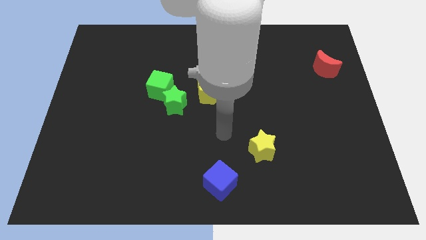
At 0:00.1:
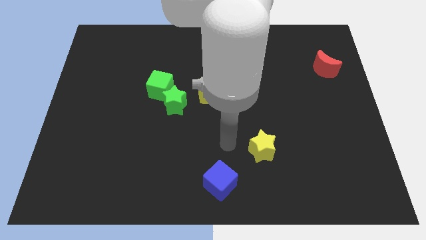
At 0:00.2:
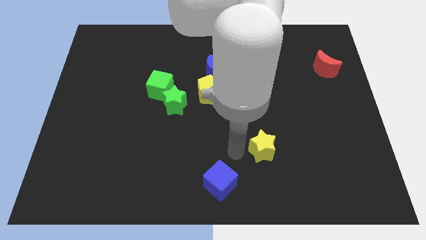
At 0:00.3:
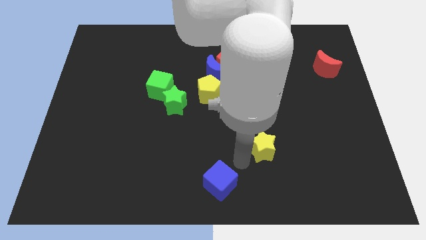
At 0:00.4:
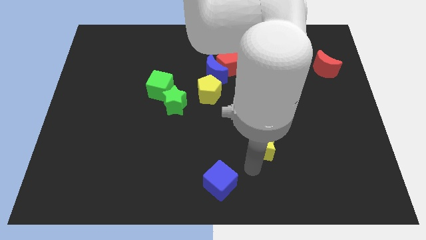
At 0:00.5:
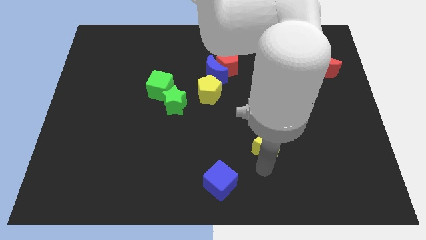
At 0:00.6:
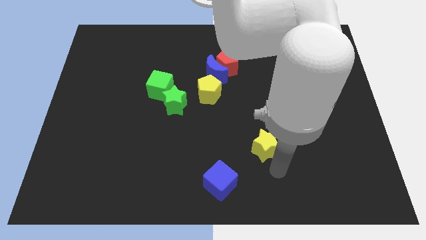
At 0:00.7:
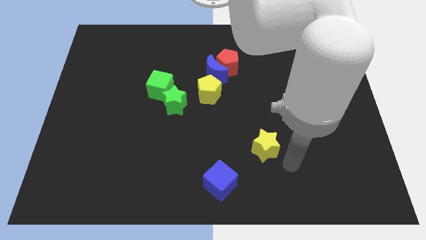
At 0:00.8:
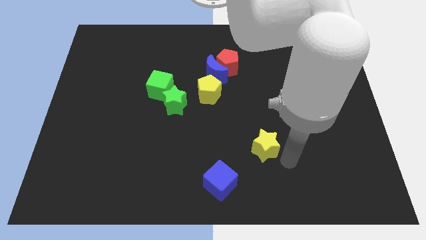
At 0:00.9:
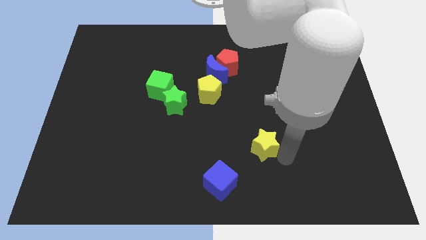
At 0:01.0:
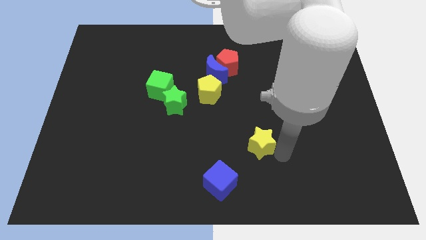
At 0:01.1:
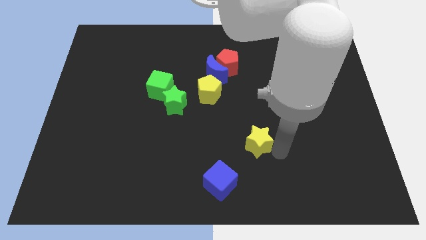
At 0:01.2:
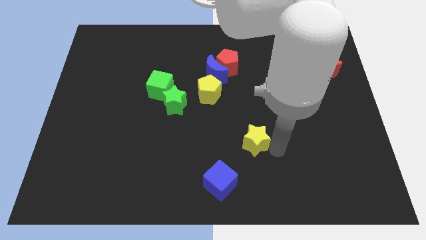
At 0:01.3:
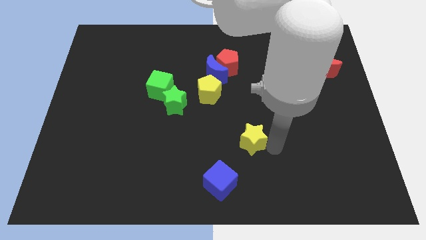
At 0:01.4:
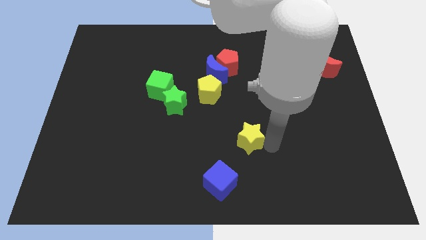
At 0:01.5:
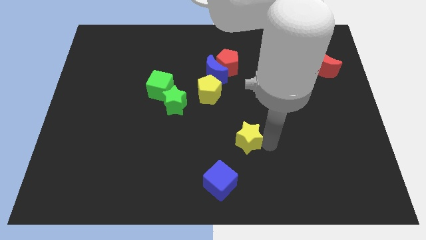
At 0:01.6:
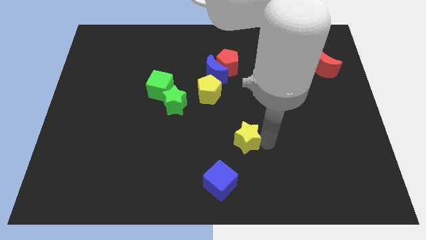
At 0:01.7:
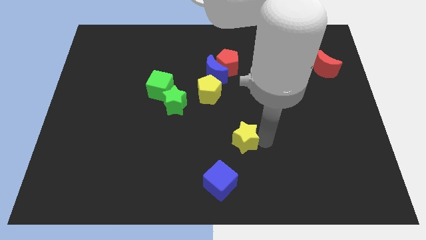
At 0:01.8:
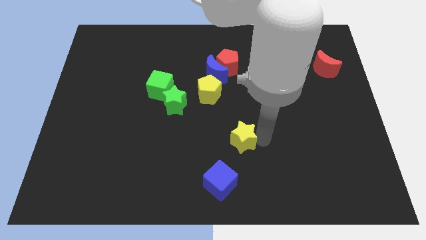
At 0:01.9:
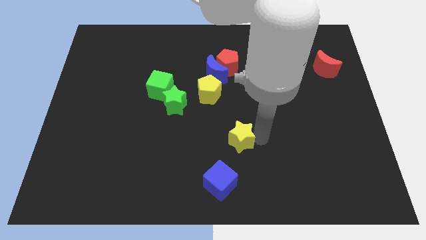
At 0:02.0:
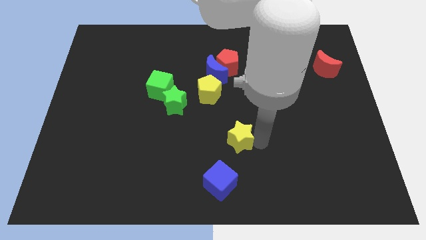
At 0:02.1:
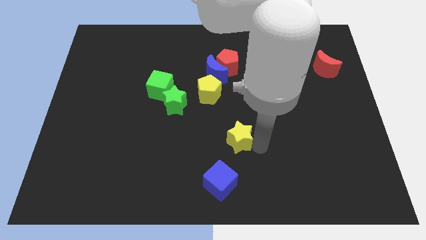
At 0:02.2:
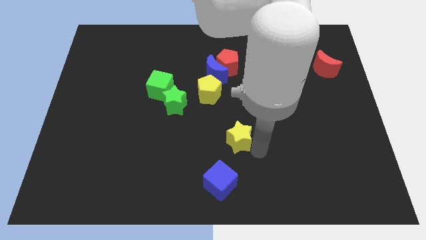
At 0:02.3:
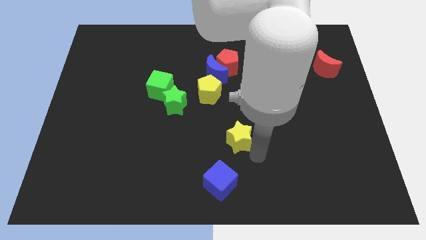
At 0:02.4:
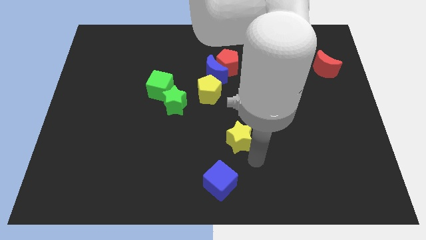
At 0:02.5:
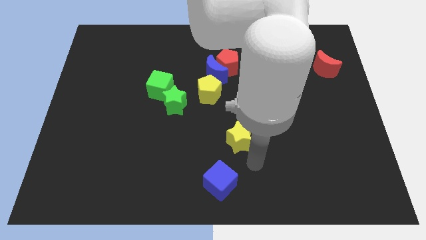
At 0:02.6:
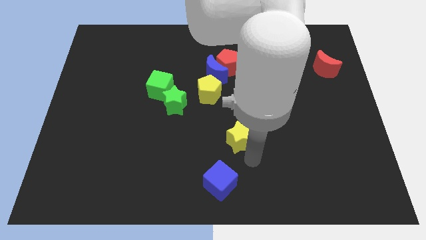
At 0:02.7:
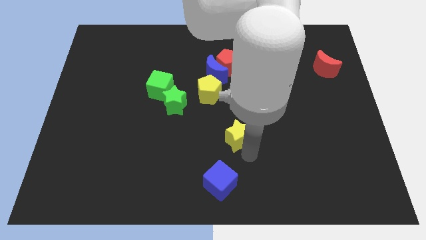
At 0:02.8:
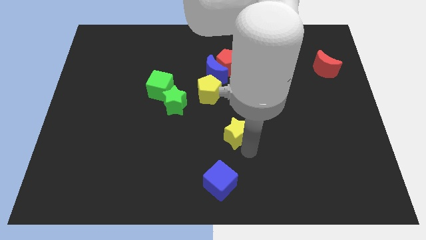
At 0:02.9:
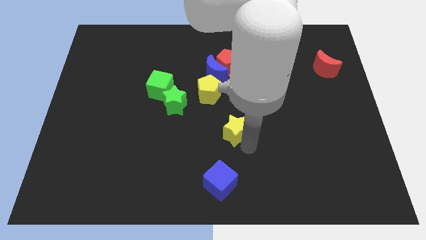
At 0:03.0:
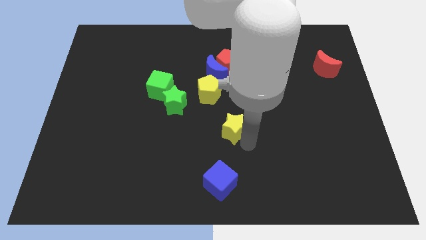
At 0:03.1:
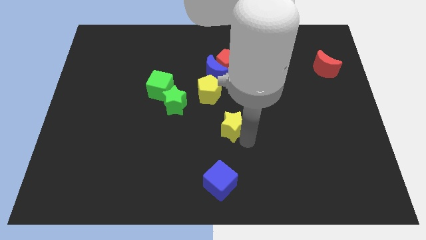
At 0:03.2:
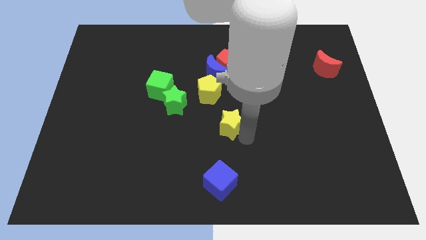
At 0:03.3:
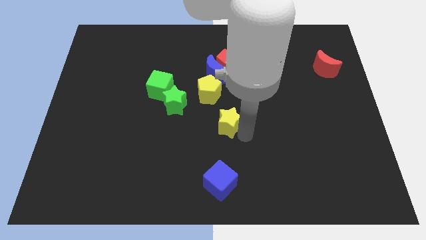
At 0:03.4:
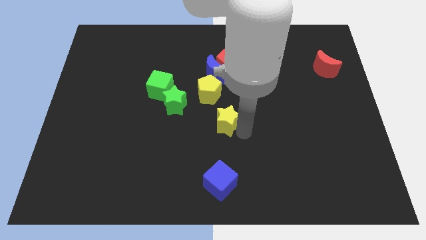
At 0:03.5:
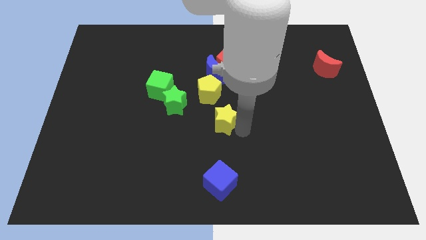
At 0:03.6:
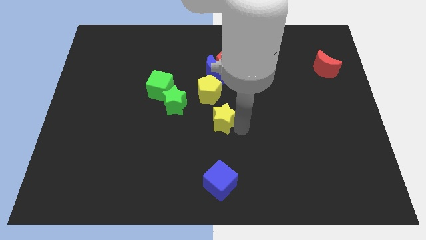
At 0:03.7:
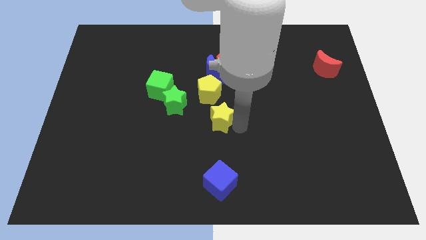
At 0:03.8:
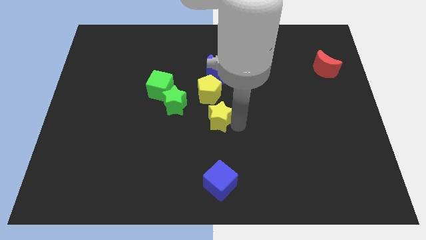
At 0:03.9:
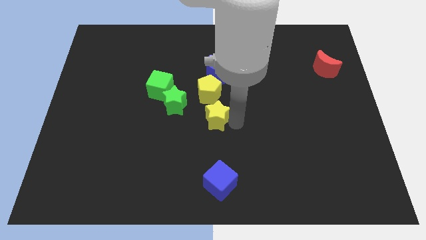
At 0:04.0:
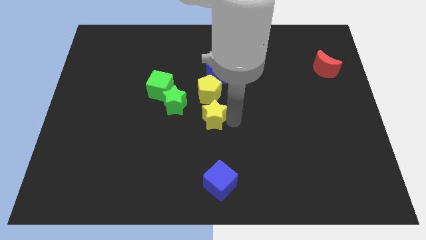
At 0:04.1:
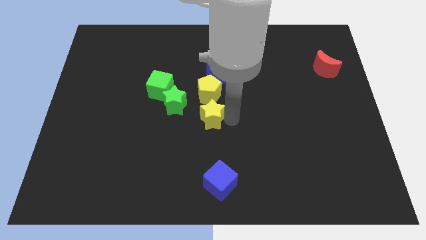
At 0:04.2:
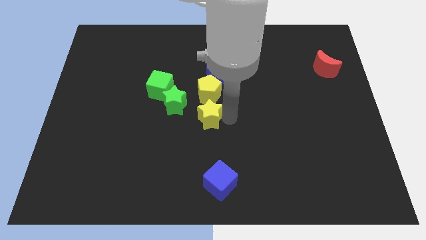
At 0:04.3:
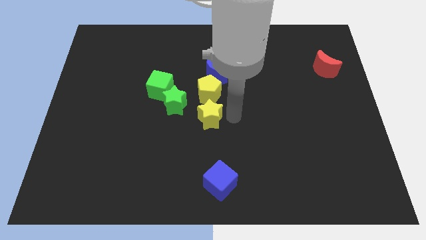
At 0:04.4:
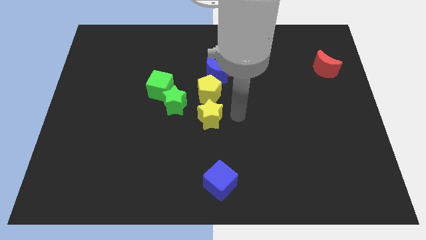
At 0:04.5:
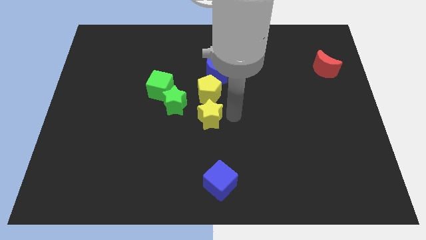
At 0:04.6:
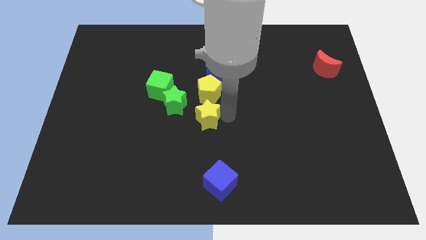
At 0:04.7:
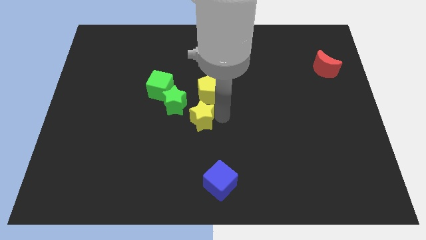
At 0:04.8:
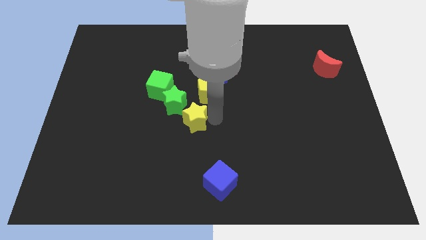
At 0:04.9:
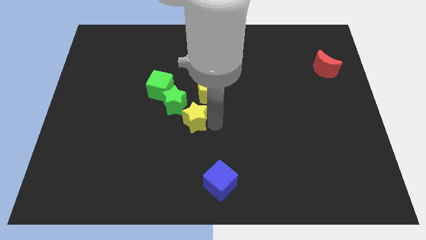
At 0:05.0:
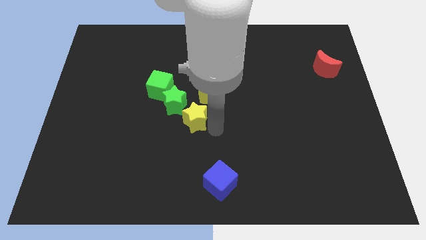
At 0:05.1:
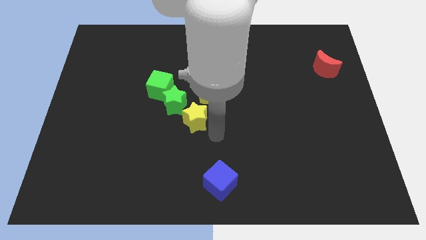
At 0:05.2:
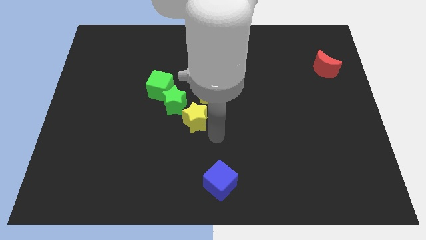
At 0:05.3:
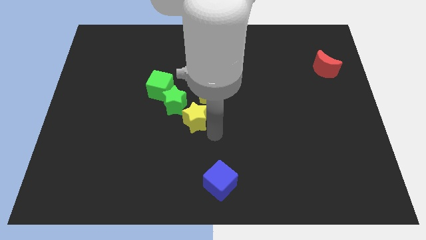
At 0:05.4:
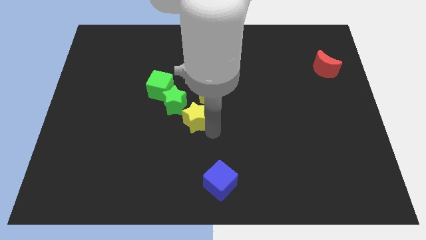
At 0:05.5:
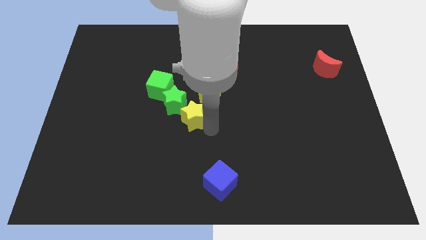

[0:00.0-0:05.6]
push the yellow star to the green star

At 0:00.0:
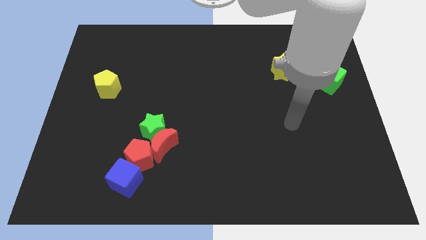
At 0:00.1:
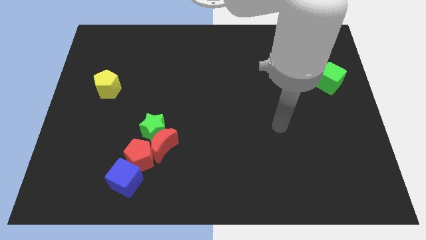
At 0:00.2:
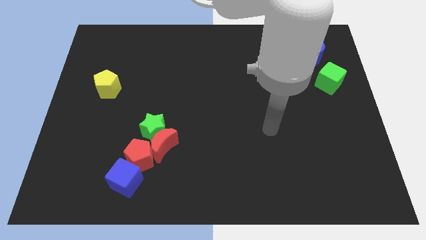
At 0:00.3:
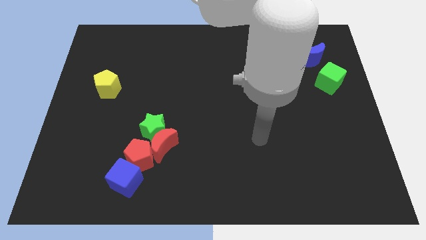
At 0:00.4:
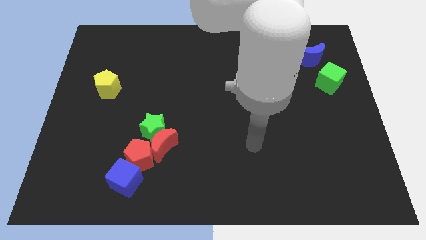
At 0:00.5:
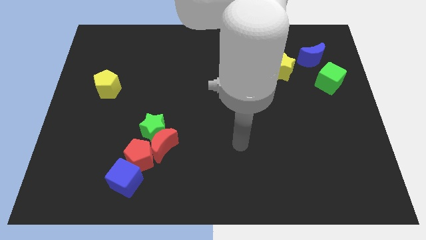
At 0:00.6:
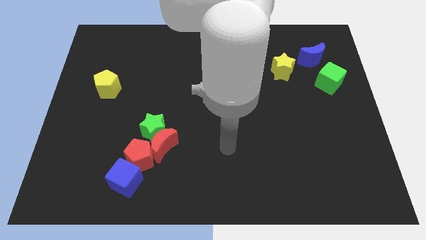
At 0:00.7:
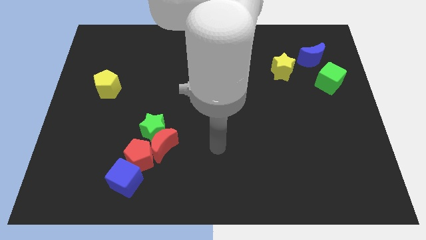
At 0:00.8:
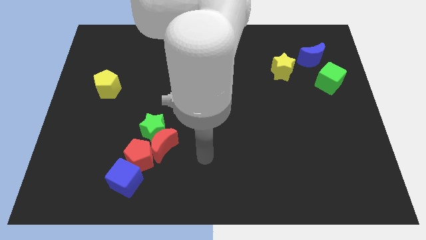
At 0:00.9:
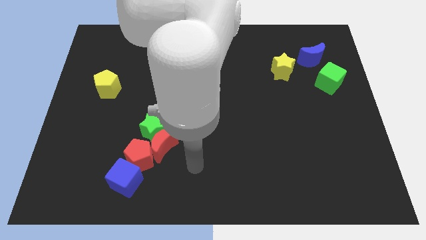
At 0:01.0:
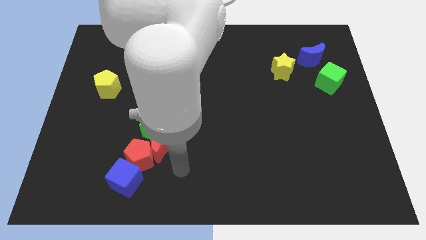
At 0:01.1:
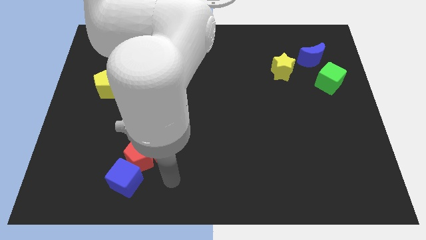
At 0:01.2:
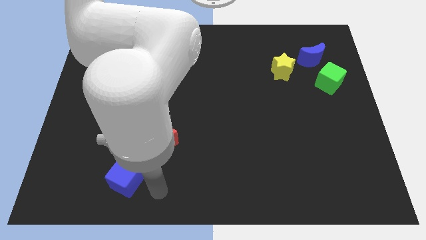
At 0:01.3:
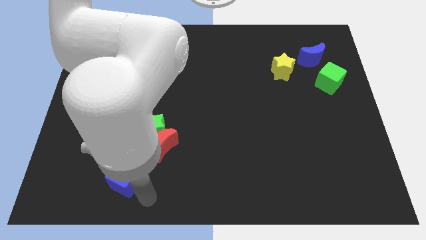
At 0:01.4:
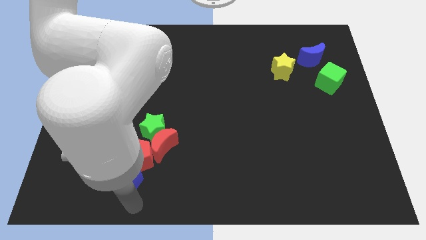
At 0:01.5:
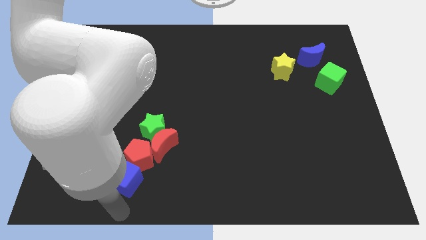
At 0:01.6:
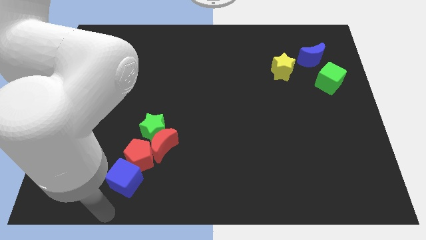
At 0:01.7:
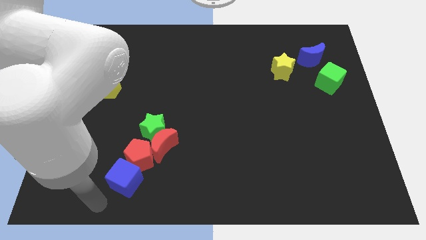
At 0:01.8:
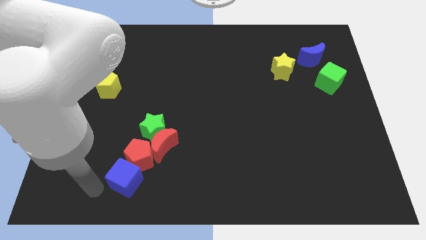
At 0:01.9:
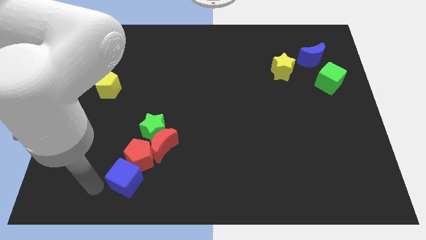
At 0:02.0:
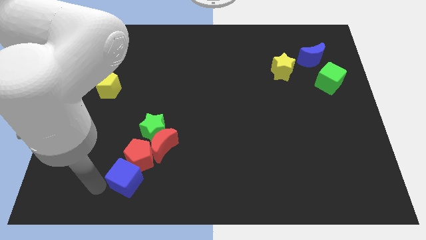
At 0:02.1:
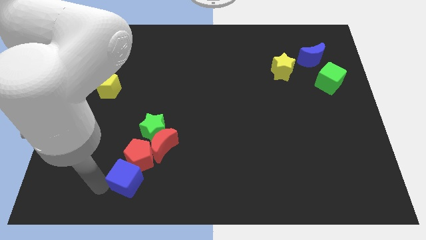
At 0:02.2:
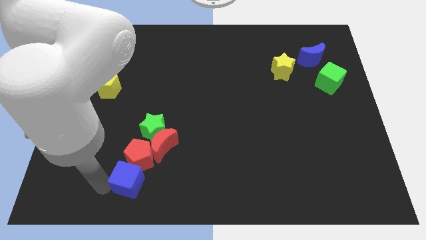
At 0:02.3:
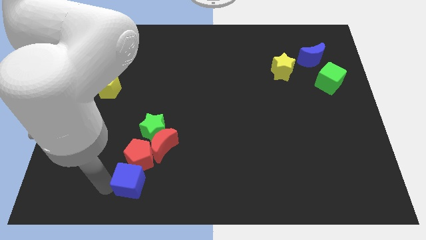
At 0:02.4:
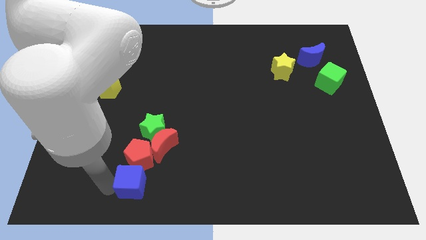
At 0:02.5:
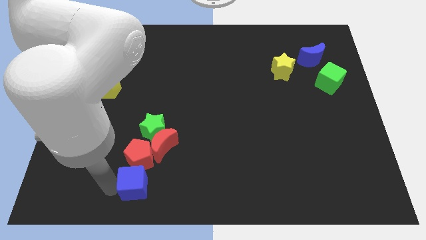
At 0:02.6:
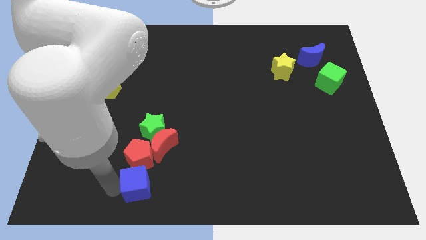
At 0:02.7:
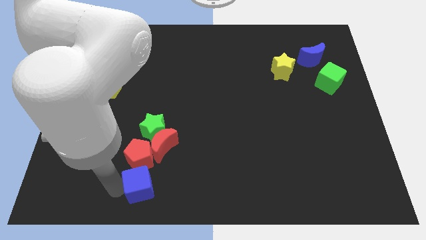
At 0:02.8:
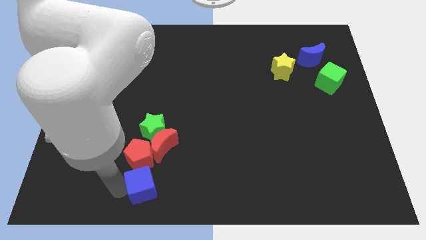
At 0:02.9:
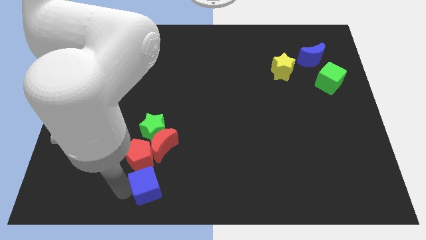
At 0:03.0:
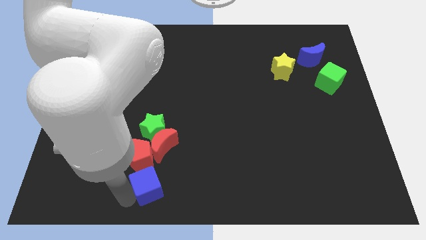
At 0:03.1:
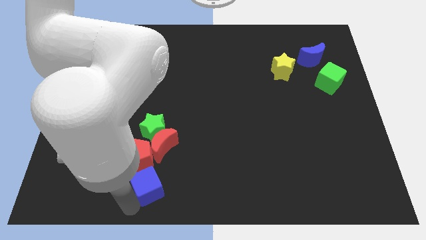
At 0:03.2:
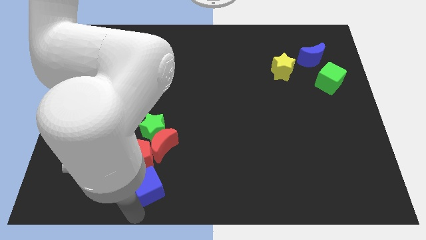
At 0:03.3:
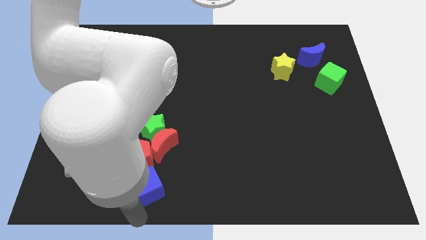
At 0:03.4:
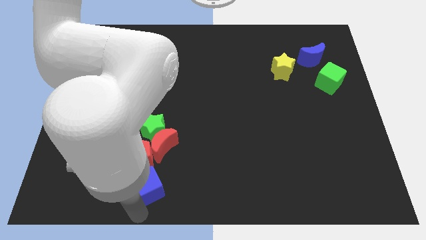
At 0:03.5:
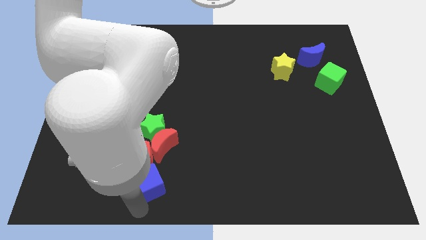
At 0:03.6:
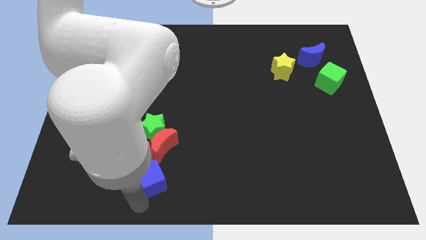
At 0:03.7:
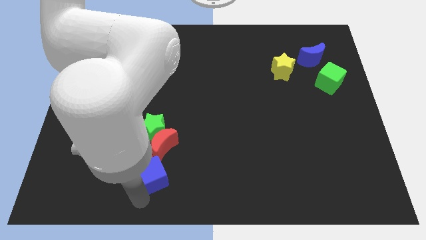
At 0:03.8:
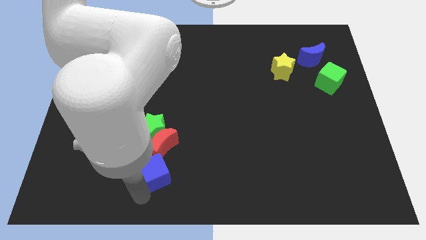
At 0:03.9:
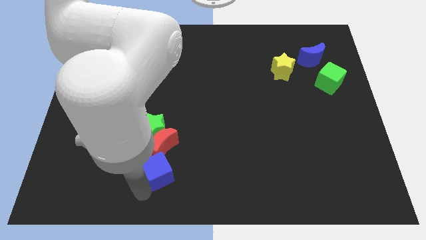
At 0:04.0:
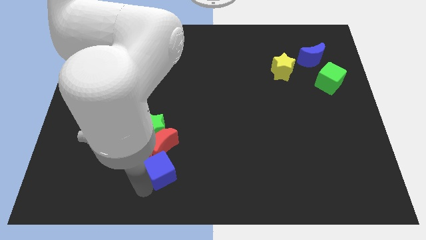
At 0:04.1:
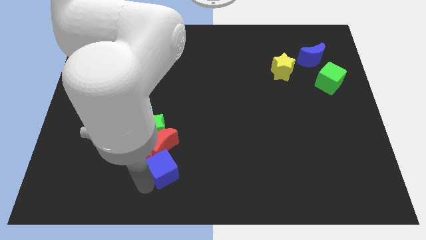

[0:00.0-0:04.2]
put the blue cube next to the red moon
